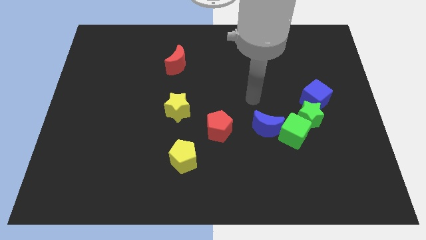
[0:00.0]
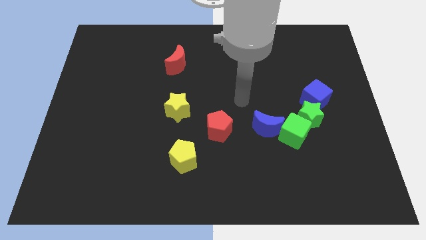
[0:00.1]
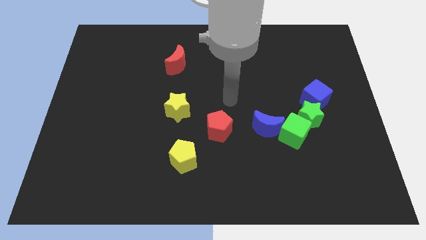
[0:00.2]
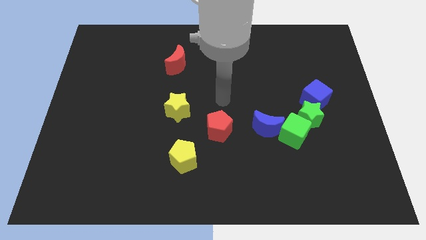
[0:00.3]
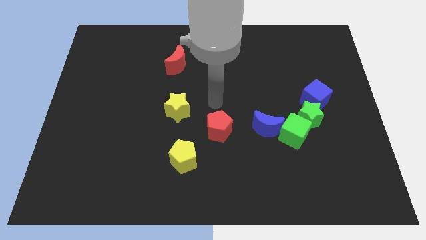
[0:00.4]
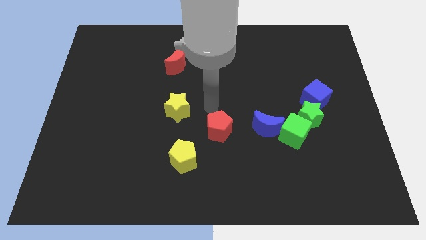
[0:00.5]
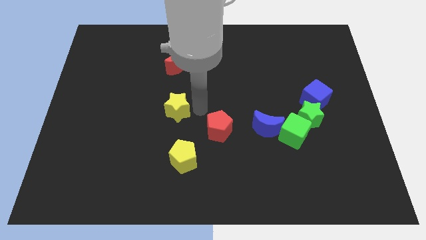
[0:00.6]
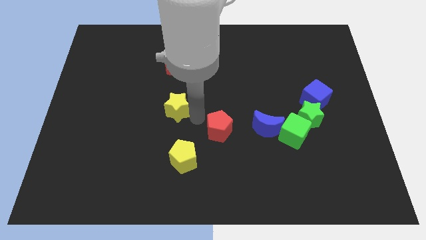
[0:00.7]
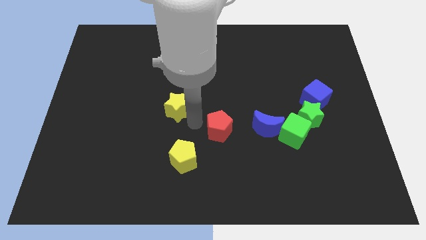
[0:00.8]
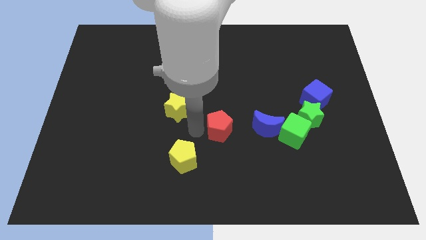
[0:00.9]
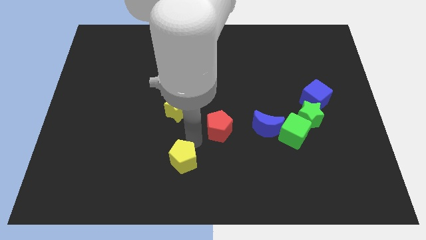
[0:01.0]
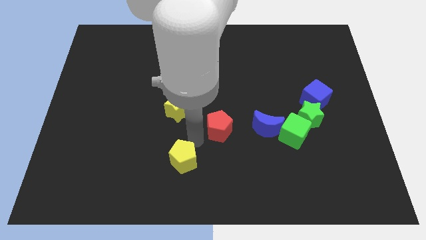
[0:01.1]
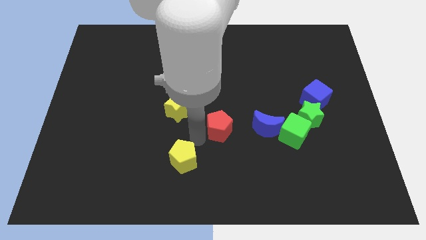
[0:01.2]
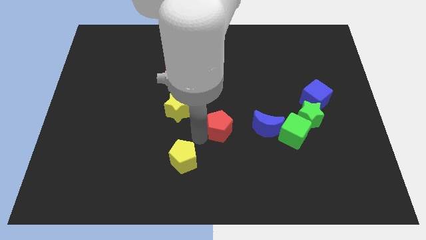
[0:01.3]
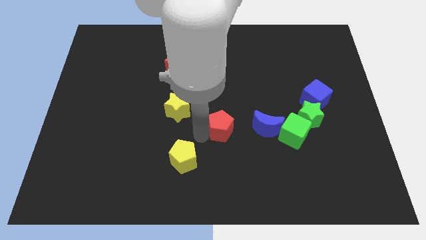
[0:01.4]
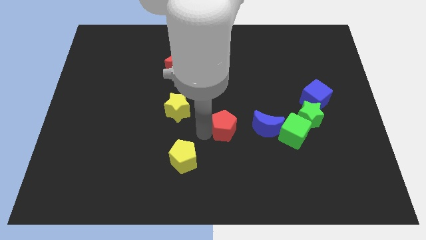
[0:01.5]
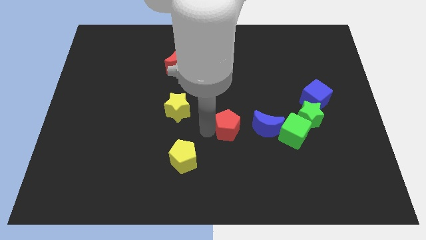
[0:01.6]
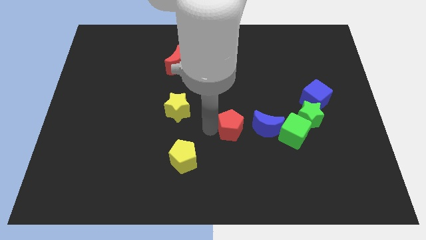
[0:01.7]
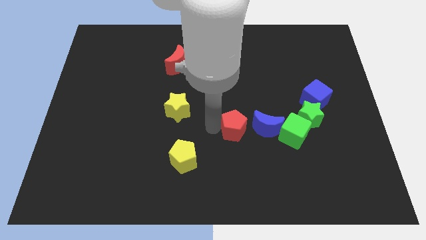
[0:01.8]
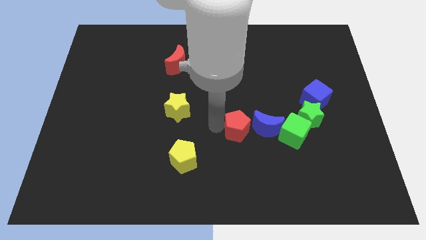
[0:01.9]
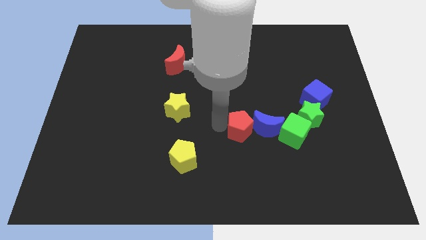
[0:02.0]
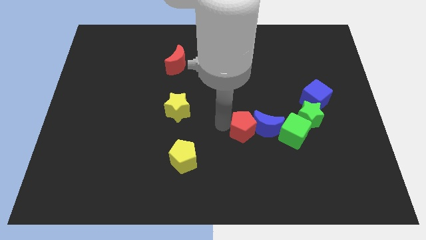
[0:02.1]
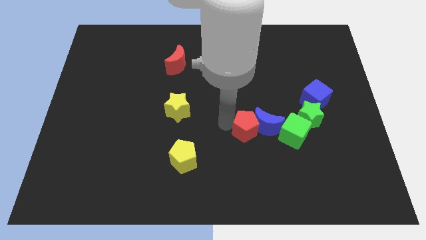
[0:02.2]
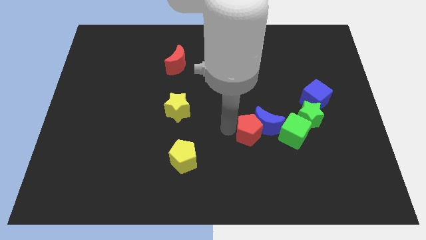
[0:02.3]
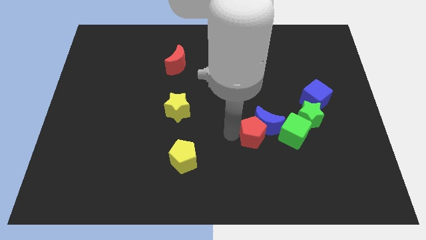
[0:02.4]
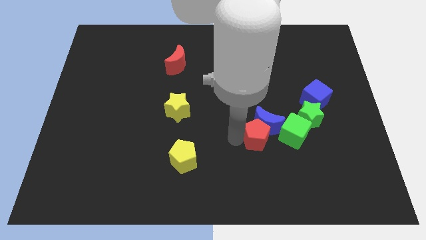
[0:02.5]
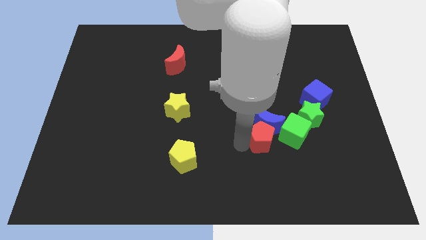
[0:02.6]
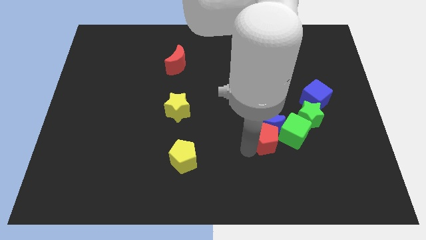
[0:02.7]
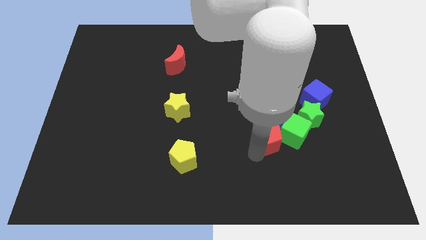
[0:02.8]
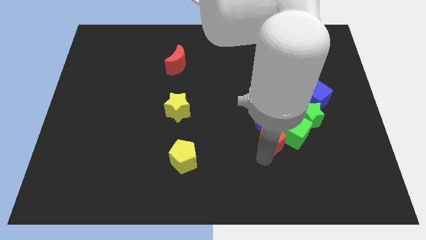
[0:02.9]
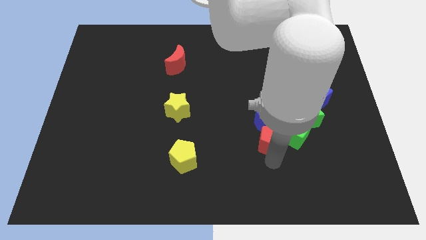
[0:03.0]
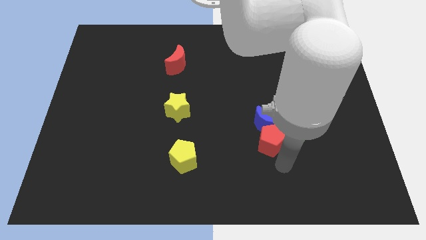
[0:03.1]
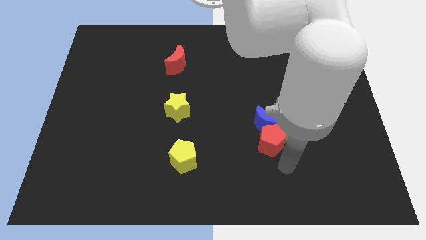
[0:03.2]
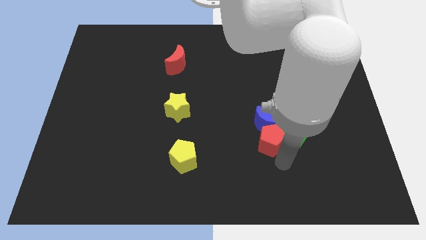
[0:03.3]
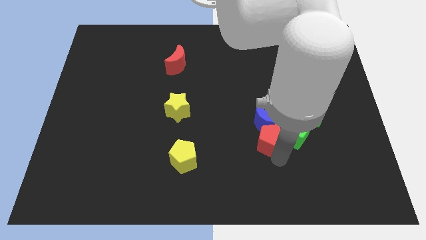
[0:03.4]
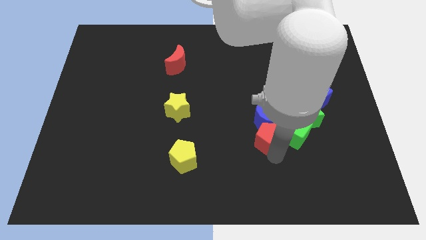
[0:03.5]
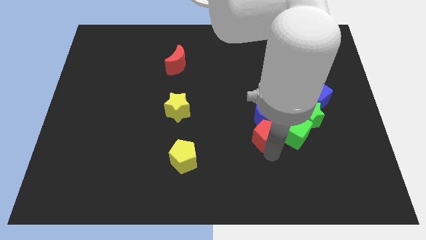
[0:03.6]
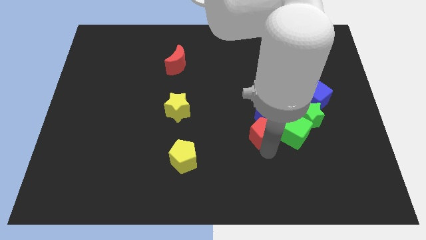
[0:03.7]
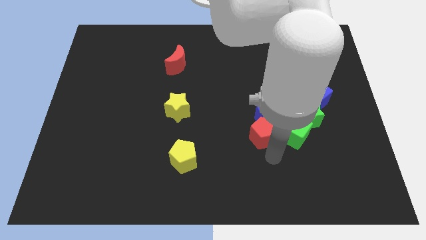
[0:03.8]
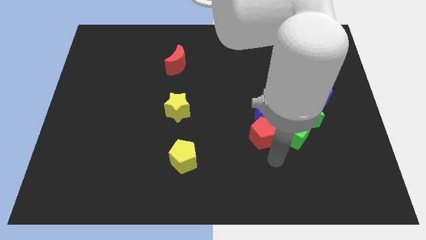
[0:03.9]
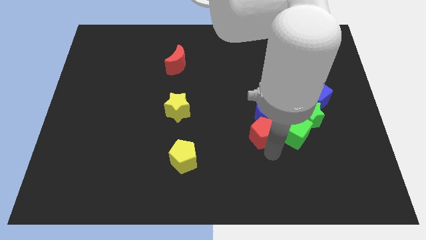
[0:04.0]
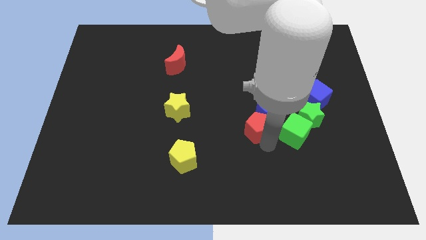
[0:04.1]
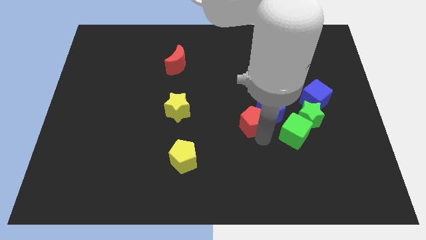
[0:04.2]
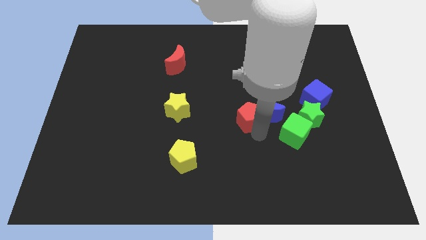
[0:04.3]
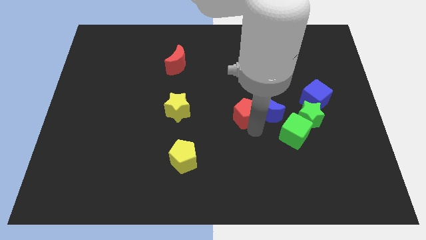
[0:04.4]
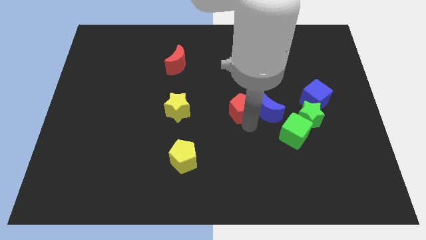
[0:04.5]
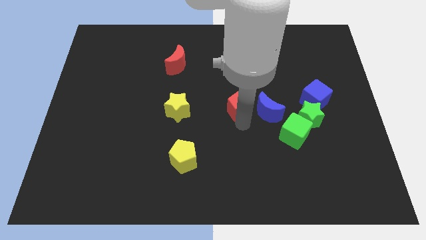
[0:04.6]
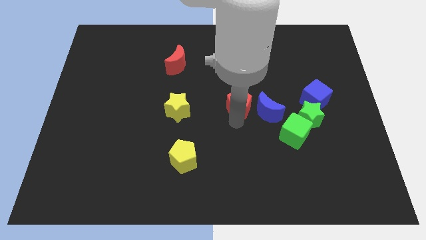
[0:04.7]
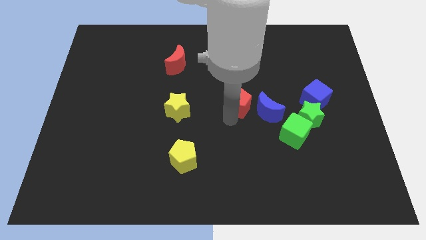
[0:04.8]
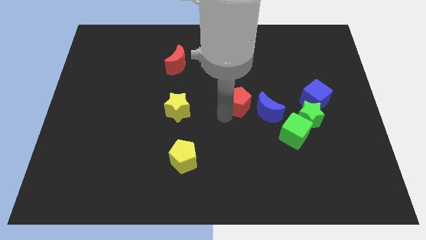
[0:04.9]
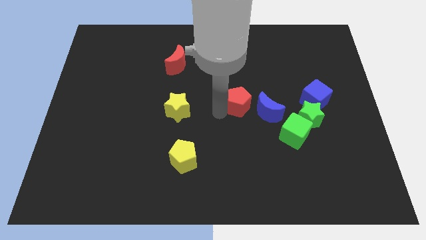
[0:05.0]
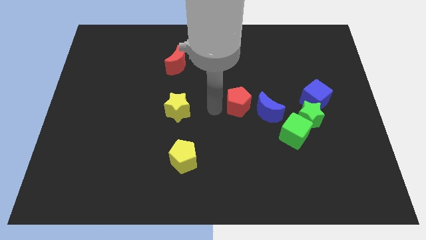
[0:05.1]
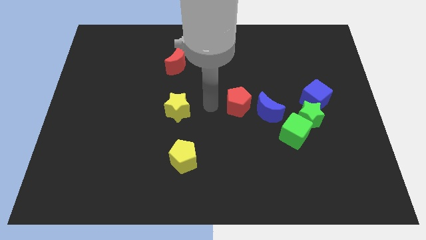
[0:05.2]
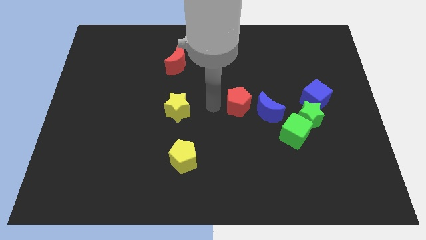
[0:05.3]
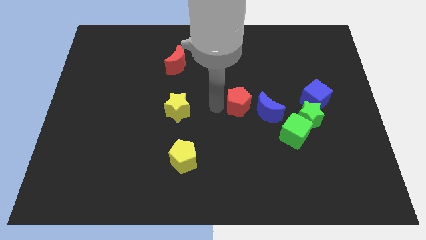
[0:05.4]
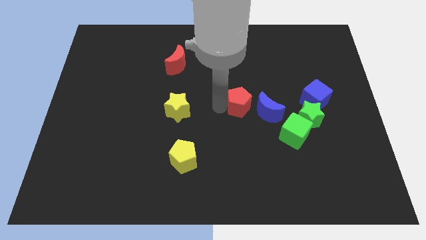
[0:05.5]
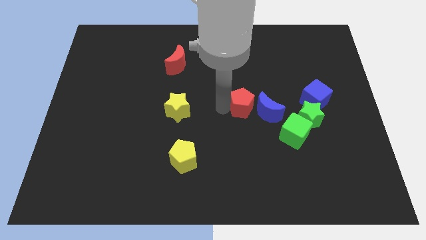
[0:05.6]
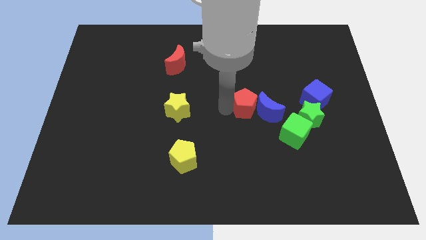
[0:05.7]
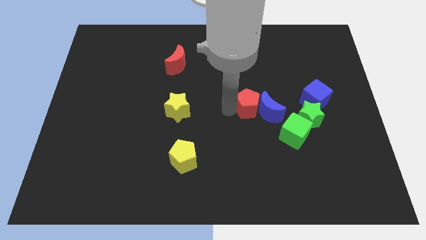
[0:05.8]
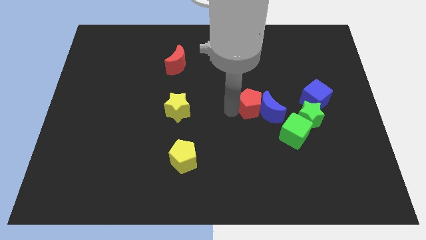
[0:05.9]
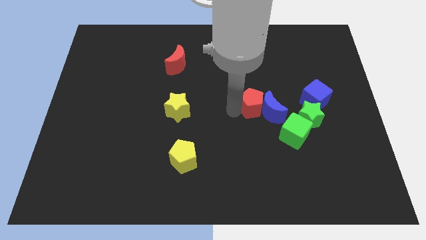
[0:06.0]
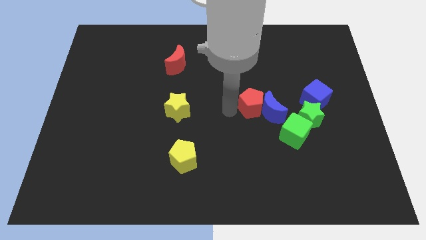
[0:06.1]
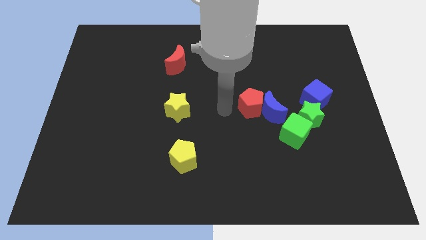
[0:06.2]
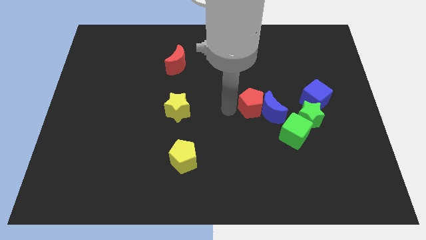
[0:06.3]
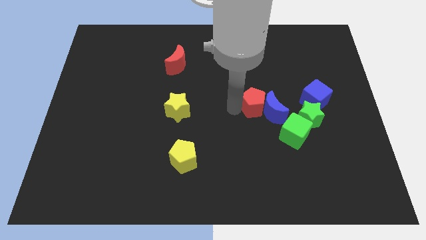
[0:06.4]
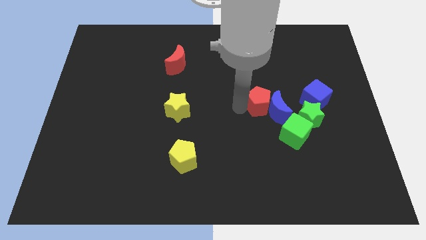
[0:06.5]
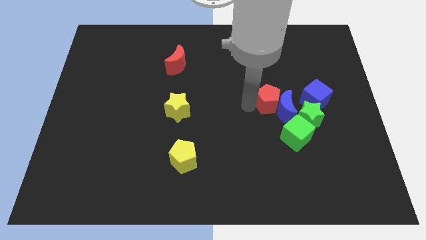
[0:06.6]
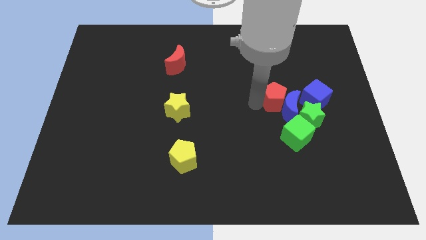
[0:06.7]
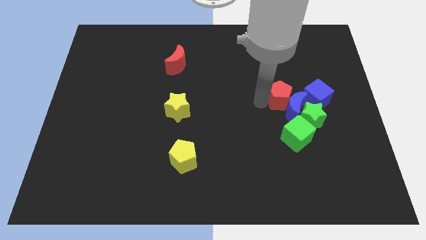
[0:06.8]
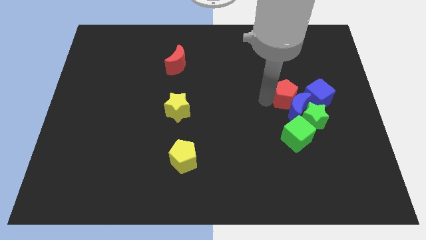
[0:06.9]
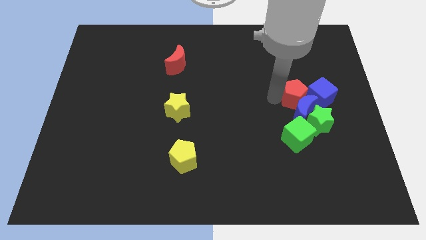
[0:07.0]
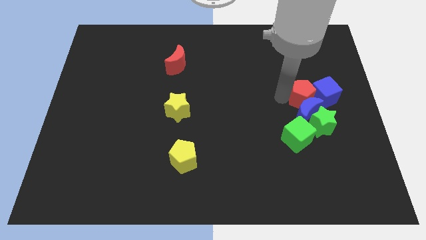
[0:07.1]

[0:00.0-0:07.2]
push the red pentagon towards the blue cube
